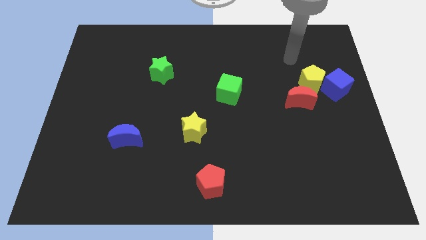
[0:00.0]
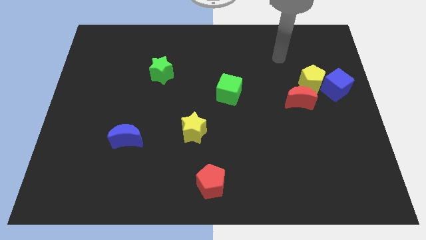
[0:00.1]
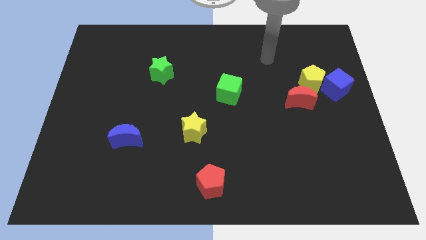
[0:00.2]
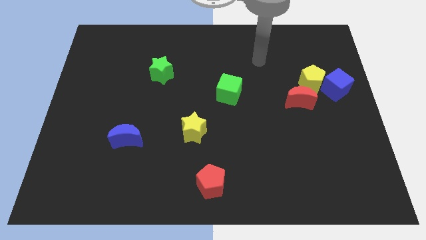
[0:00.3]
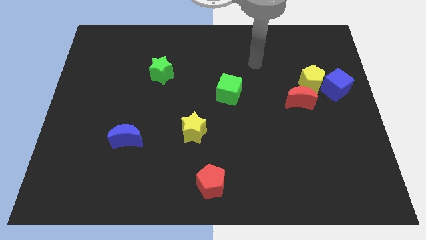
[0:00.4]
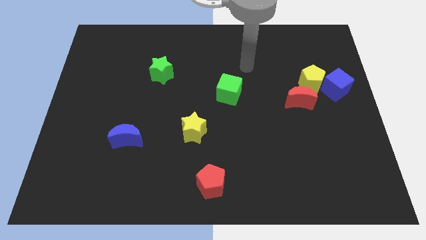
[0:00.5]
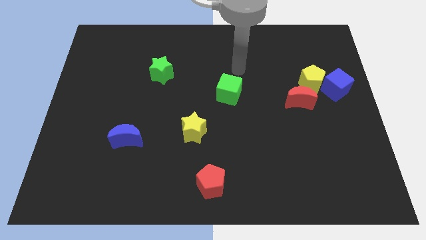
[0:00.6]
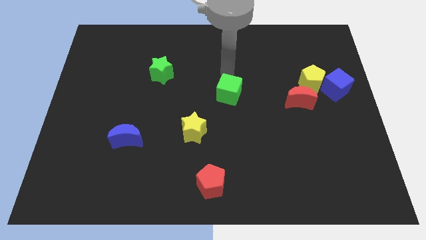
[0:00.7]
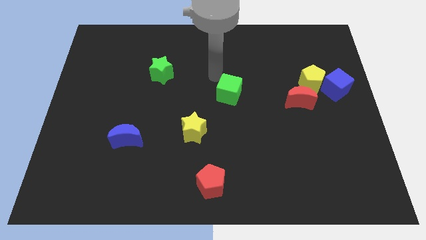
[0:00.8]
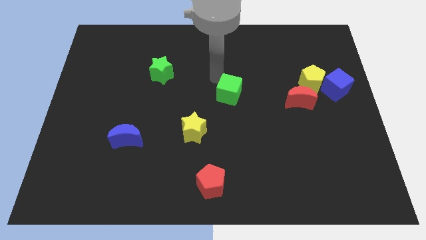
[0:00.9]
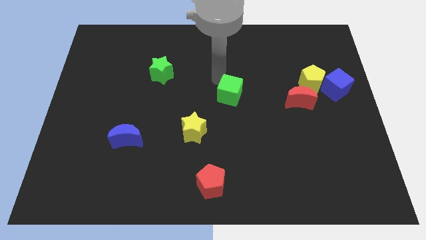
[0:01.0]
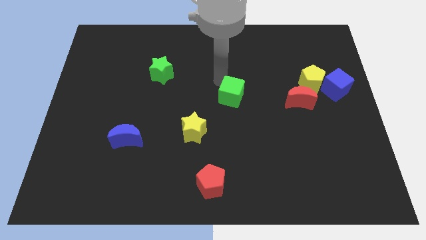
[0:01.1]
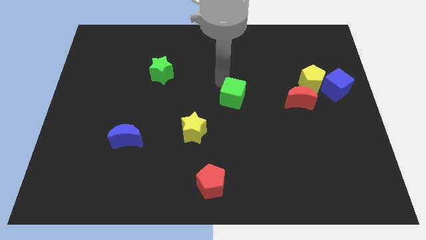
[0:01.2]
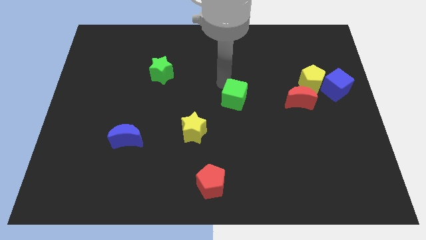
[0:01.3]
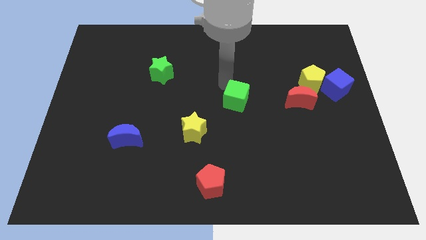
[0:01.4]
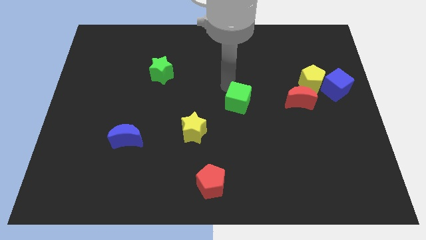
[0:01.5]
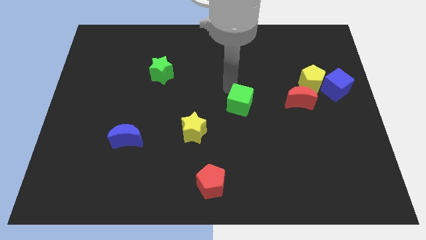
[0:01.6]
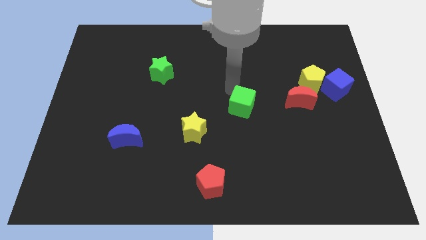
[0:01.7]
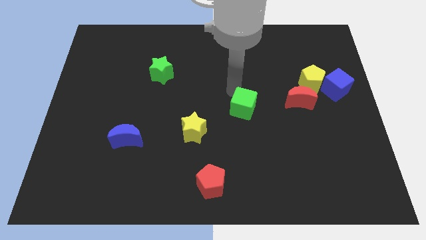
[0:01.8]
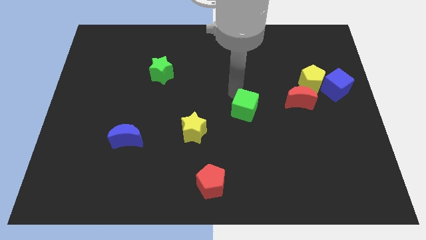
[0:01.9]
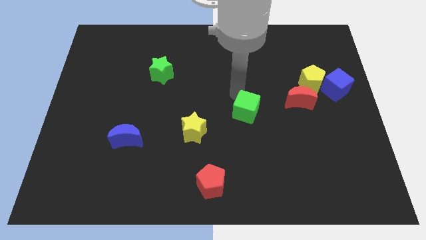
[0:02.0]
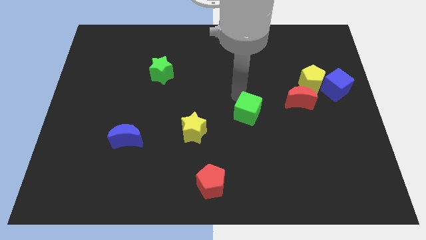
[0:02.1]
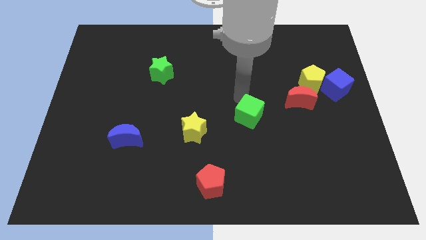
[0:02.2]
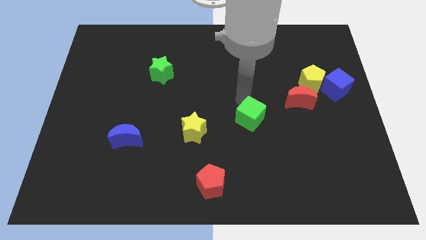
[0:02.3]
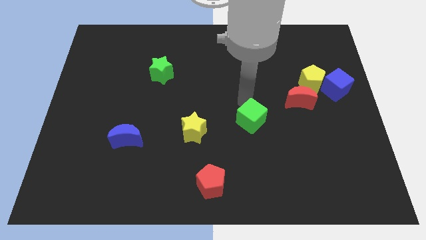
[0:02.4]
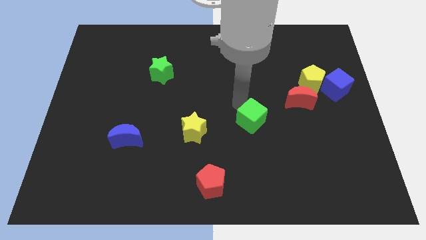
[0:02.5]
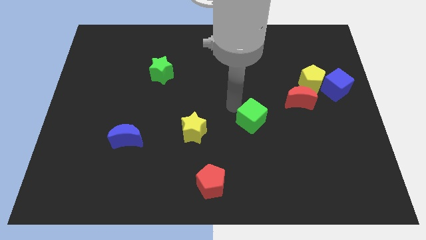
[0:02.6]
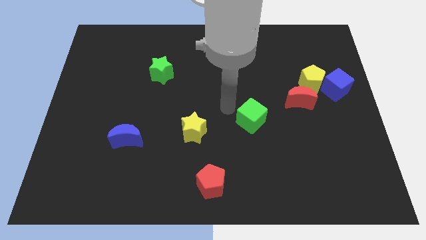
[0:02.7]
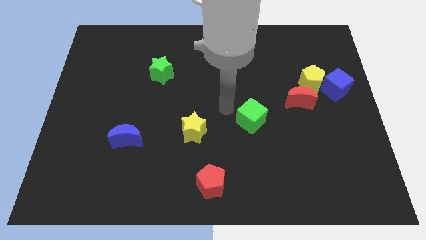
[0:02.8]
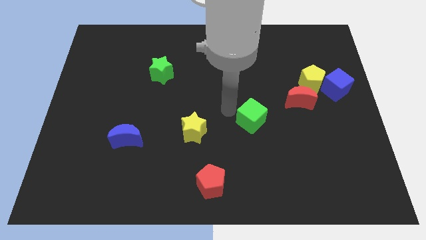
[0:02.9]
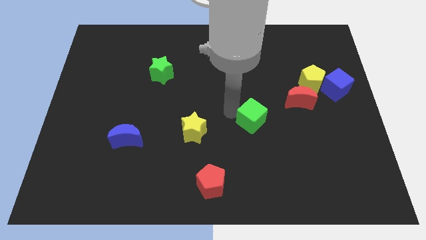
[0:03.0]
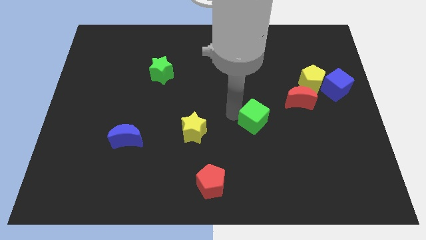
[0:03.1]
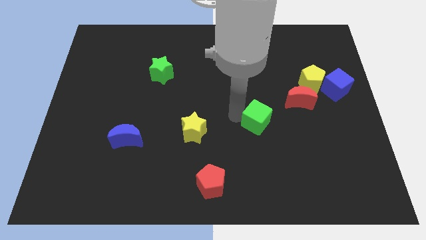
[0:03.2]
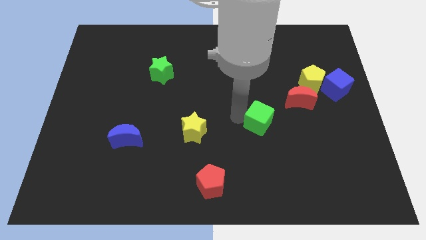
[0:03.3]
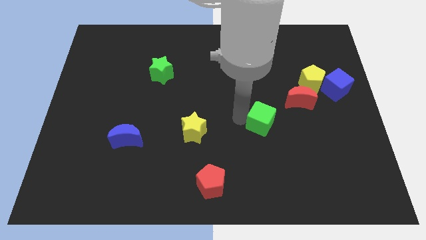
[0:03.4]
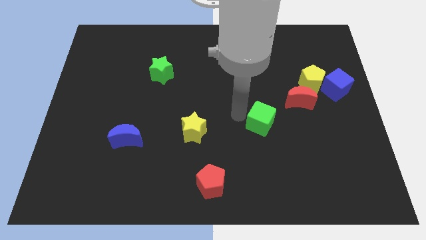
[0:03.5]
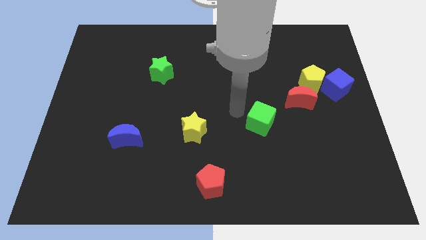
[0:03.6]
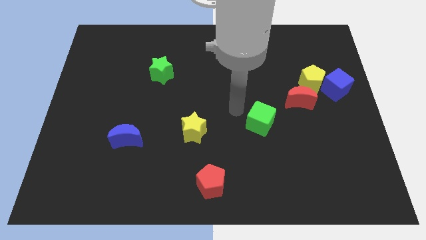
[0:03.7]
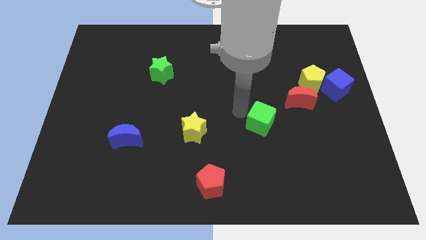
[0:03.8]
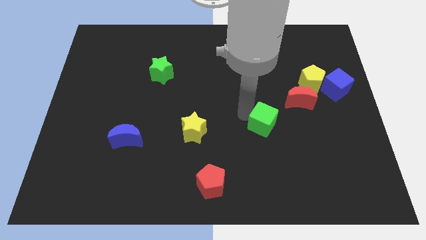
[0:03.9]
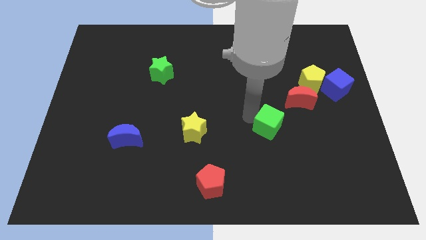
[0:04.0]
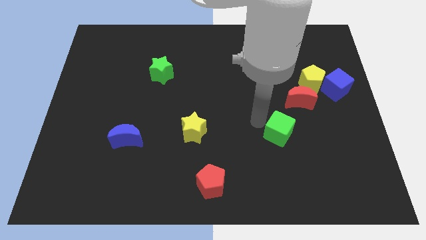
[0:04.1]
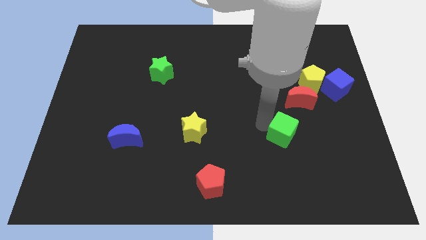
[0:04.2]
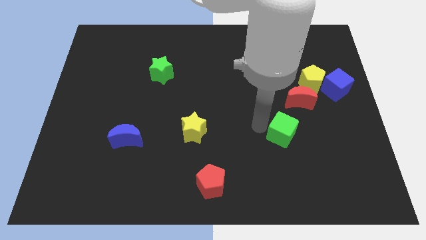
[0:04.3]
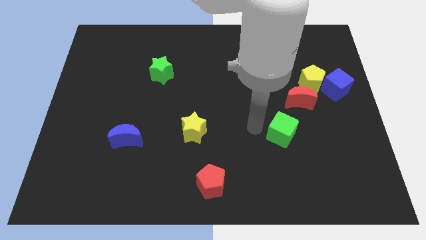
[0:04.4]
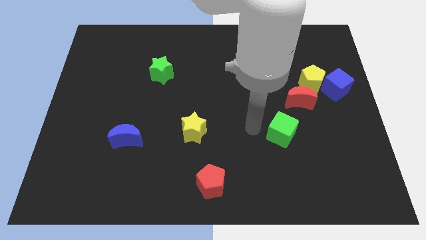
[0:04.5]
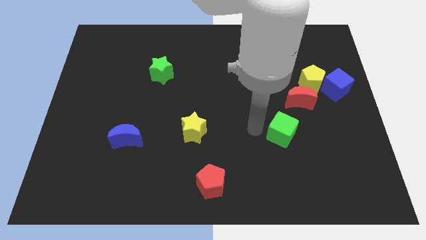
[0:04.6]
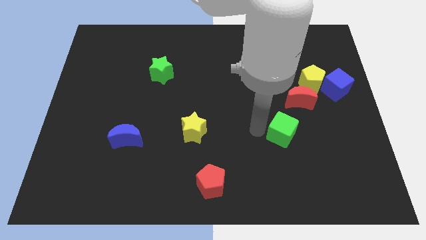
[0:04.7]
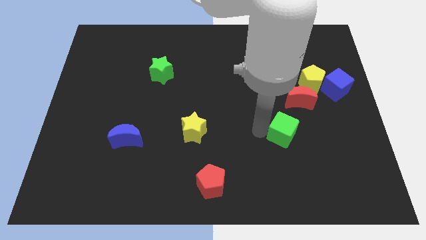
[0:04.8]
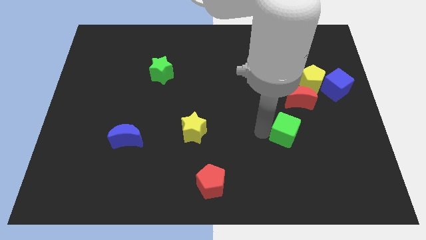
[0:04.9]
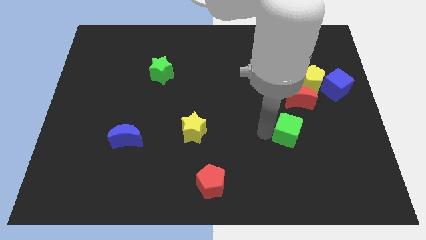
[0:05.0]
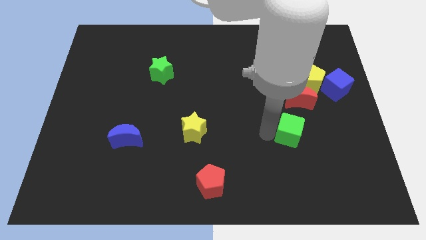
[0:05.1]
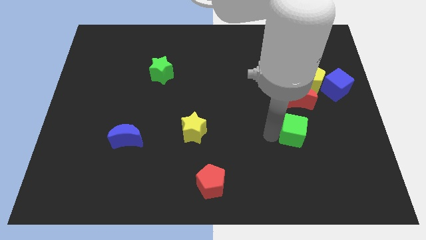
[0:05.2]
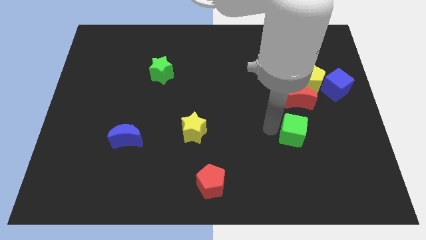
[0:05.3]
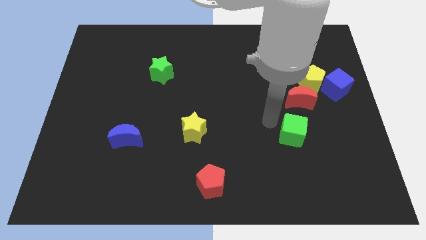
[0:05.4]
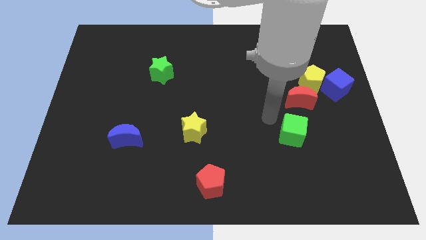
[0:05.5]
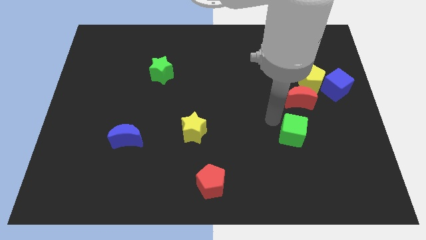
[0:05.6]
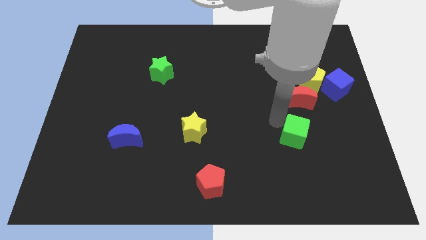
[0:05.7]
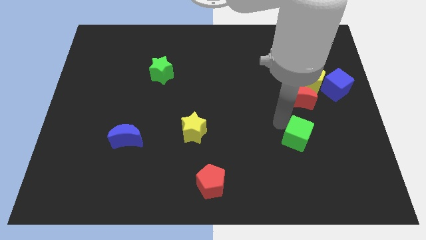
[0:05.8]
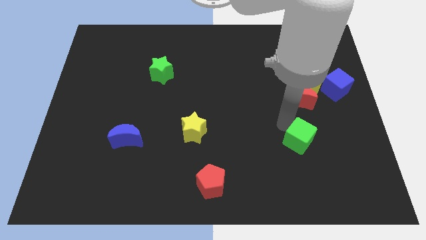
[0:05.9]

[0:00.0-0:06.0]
push the green cube down and then to the right

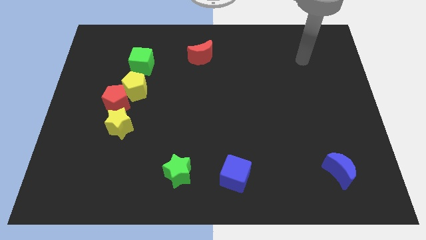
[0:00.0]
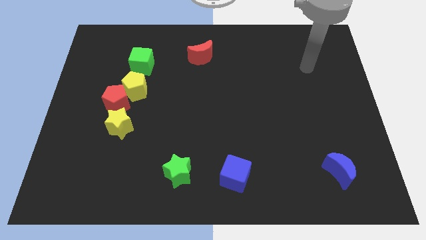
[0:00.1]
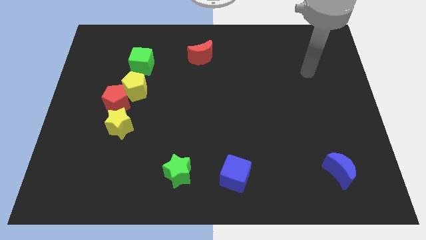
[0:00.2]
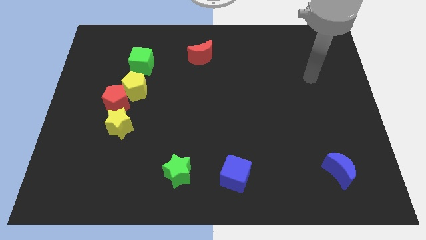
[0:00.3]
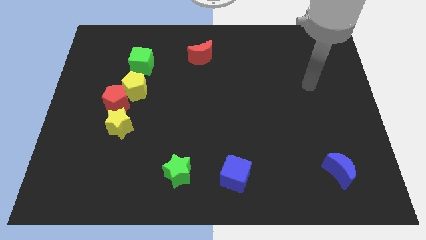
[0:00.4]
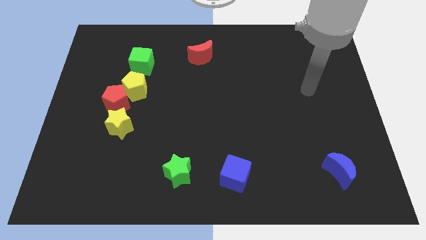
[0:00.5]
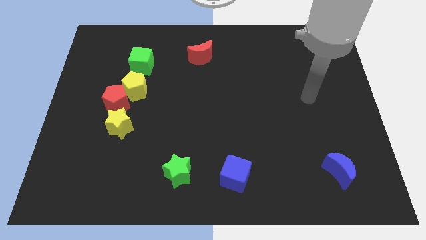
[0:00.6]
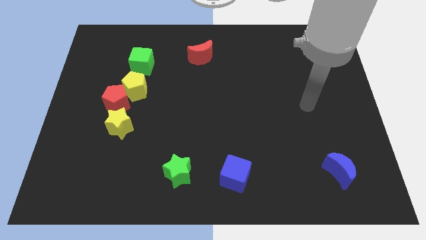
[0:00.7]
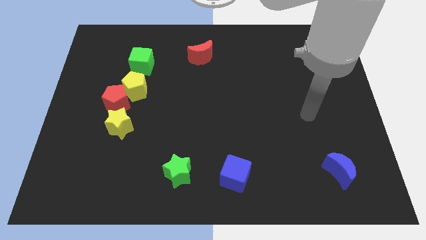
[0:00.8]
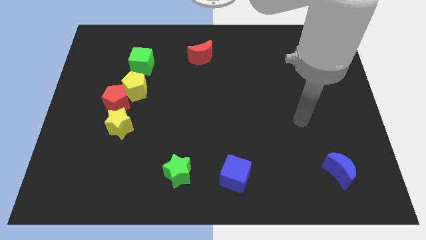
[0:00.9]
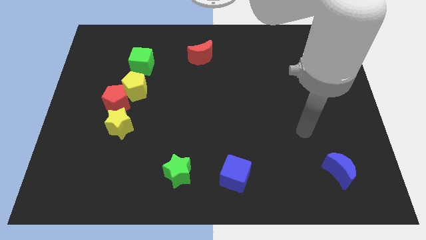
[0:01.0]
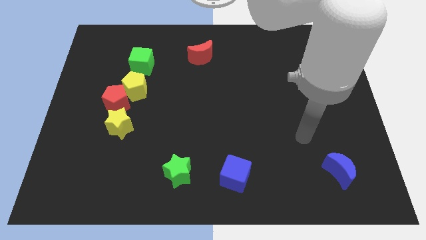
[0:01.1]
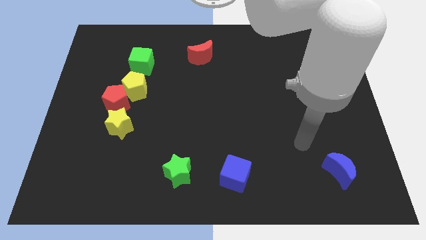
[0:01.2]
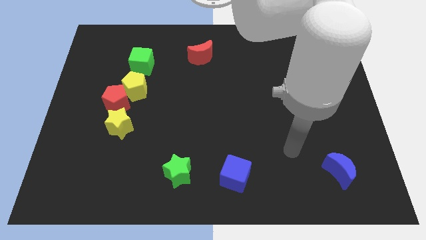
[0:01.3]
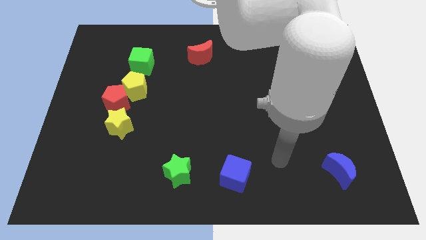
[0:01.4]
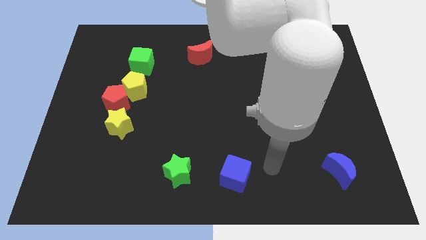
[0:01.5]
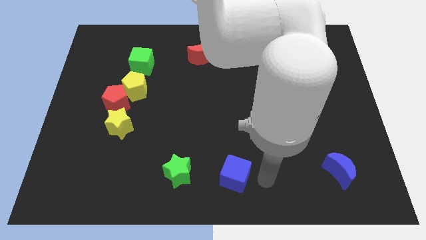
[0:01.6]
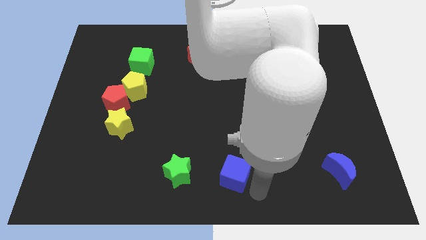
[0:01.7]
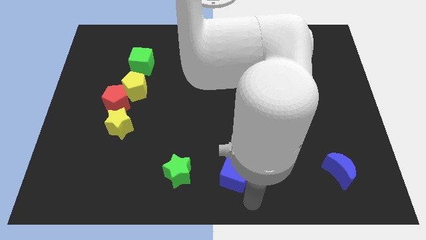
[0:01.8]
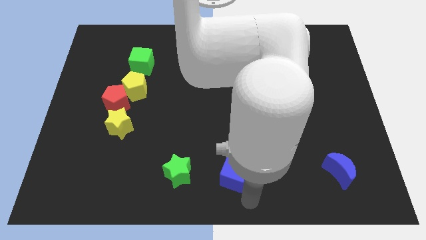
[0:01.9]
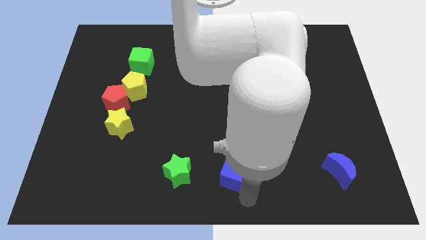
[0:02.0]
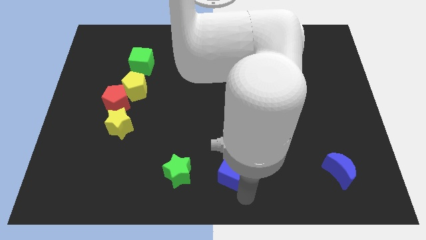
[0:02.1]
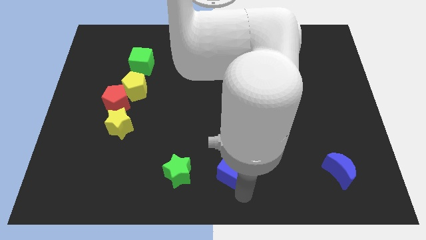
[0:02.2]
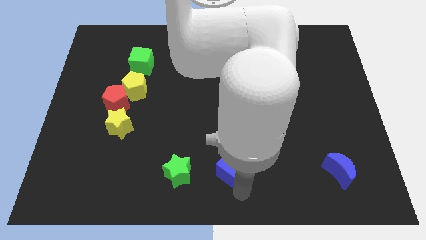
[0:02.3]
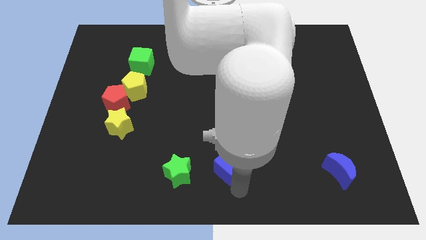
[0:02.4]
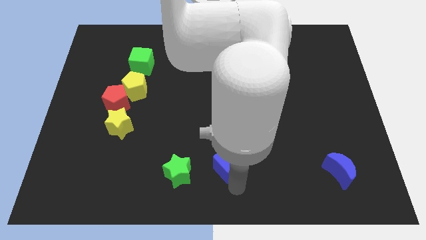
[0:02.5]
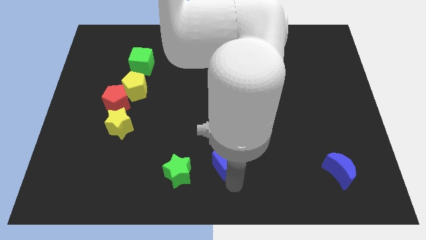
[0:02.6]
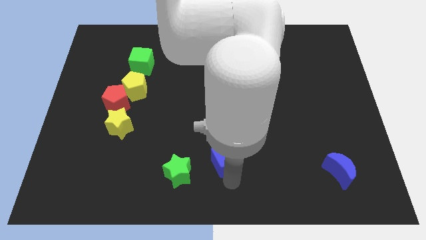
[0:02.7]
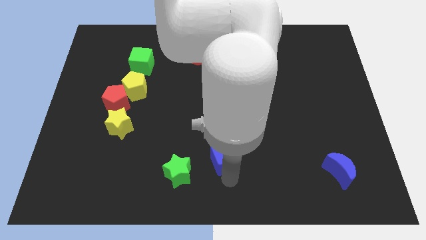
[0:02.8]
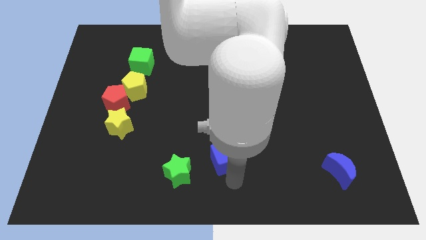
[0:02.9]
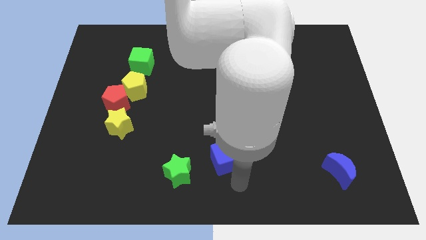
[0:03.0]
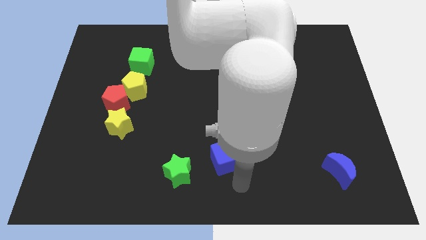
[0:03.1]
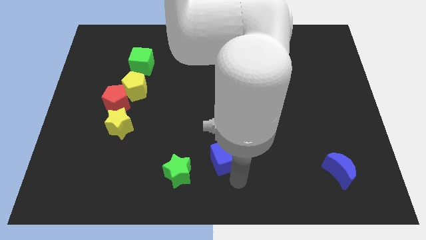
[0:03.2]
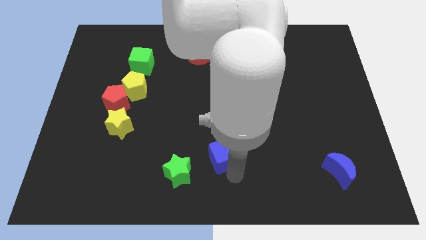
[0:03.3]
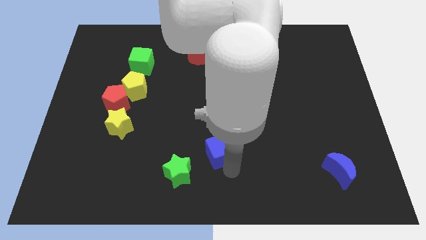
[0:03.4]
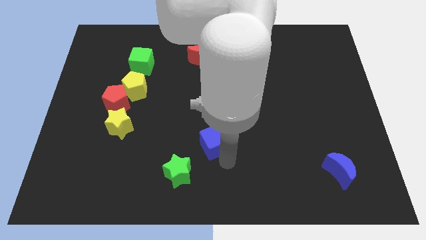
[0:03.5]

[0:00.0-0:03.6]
slightly slide the blue cube upwards and then left
